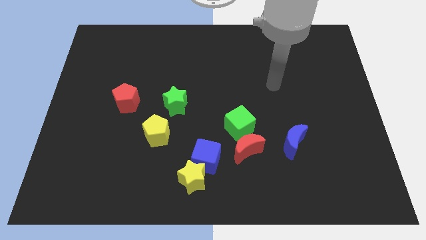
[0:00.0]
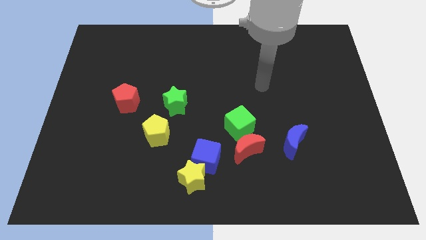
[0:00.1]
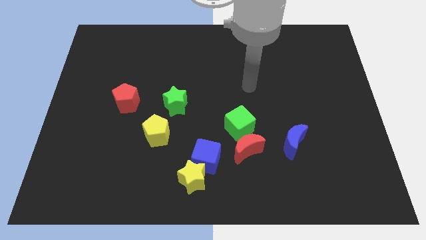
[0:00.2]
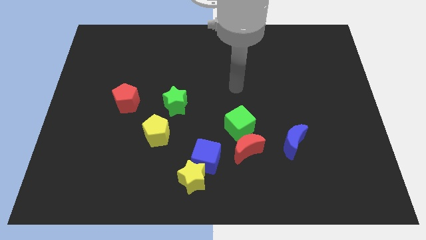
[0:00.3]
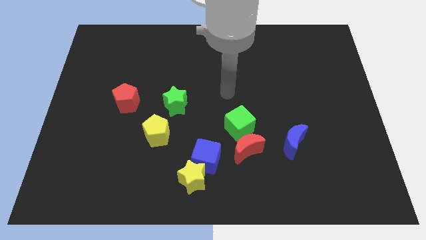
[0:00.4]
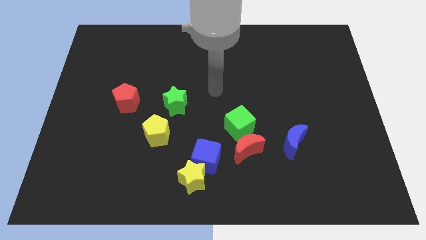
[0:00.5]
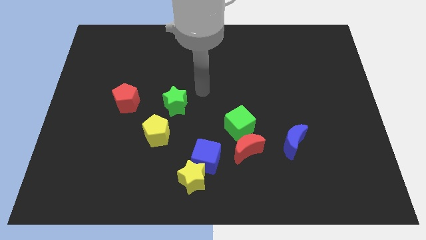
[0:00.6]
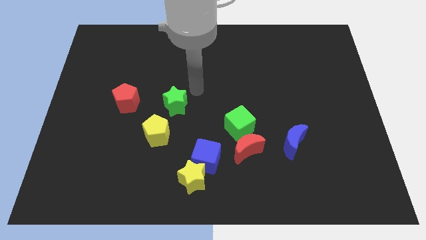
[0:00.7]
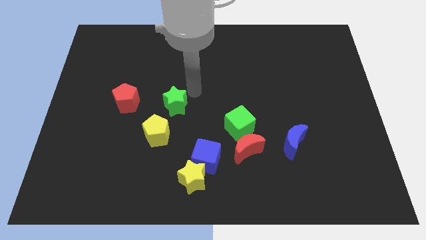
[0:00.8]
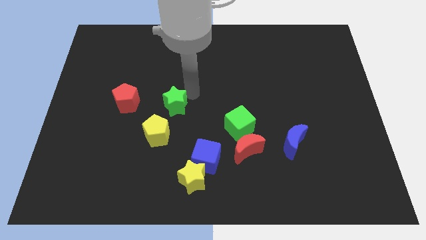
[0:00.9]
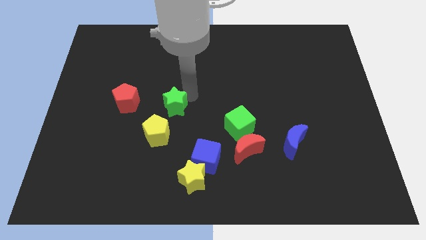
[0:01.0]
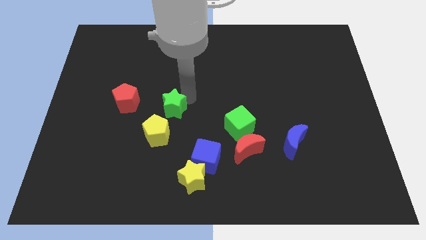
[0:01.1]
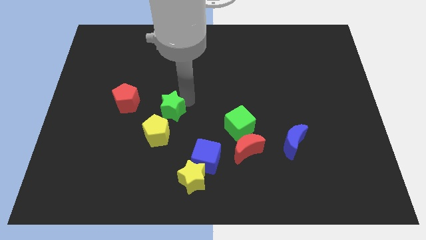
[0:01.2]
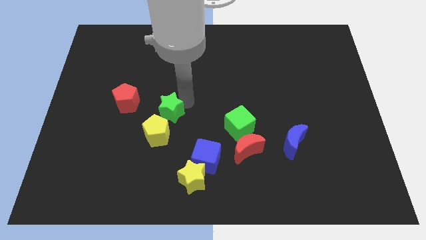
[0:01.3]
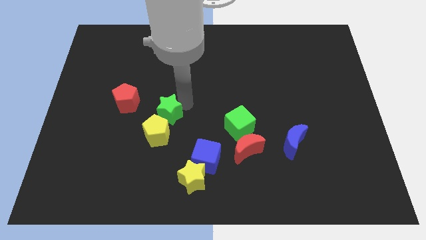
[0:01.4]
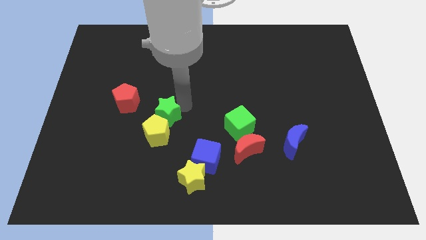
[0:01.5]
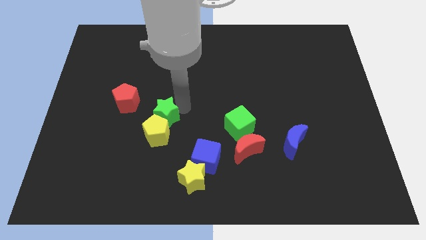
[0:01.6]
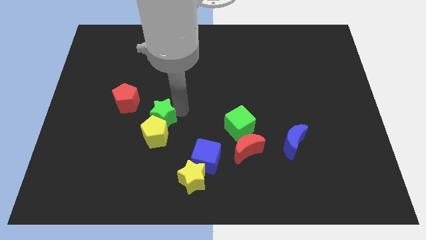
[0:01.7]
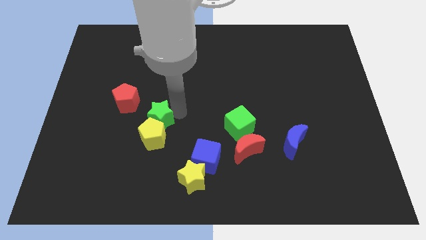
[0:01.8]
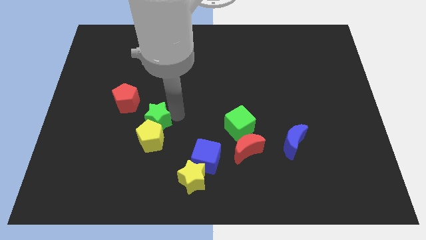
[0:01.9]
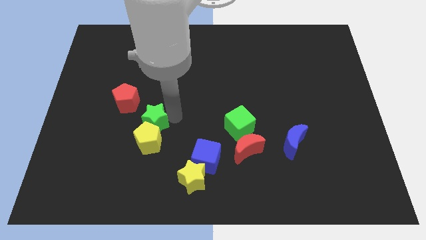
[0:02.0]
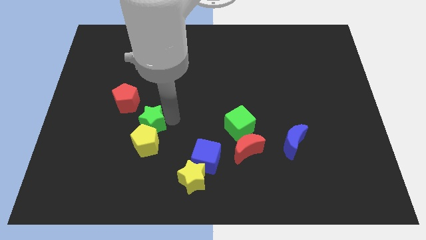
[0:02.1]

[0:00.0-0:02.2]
slightly slide the green star down and to the left diagonally

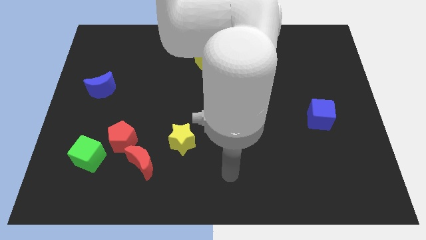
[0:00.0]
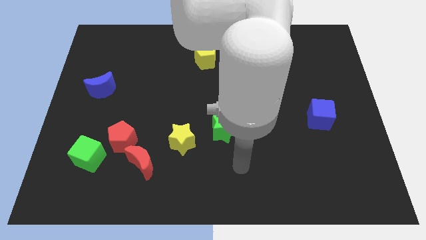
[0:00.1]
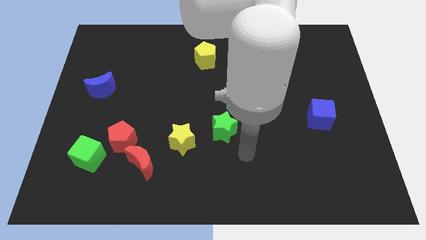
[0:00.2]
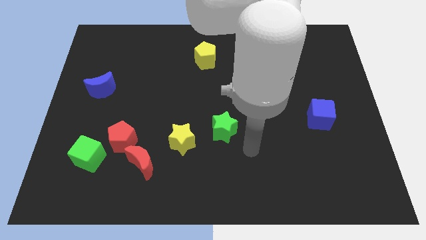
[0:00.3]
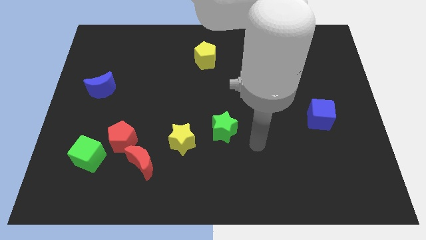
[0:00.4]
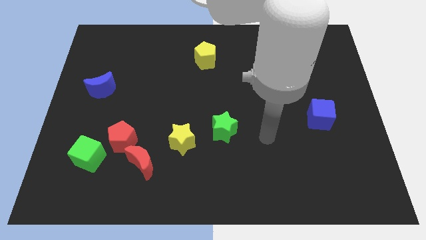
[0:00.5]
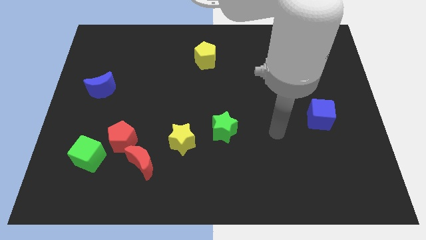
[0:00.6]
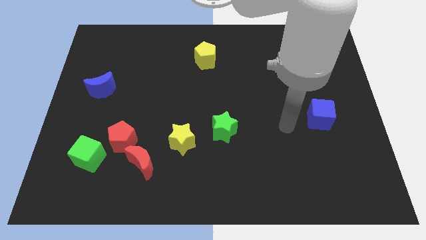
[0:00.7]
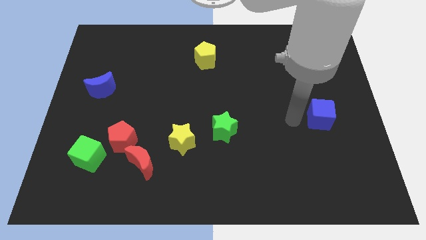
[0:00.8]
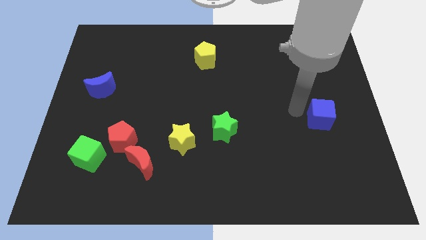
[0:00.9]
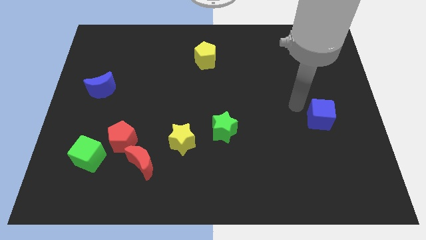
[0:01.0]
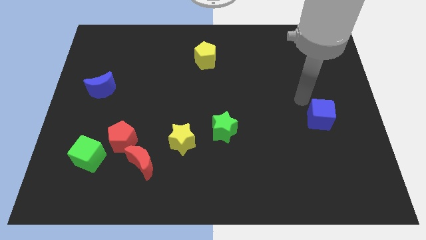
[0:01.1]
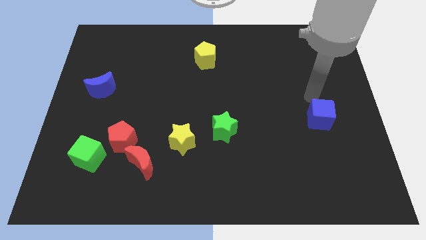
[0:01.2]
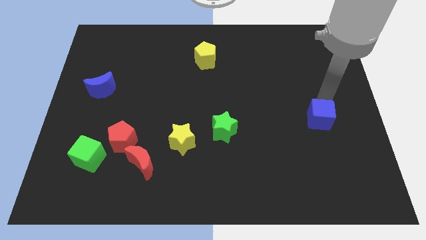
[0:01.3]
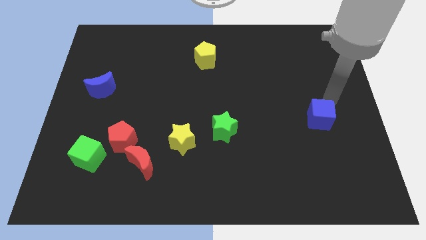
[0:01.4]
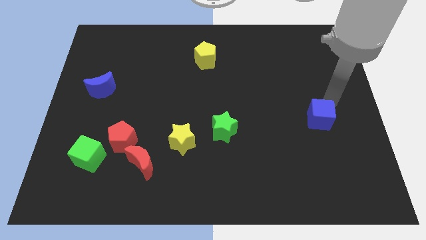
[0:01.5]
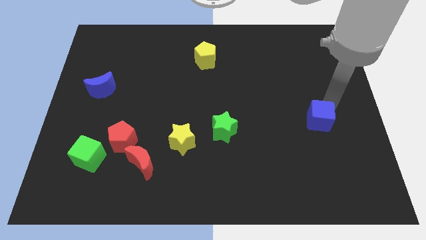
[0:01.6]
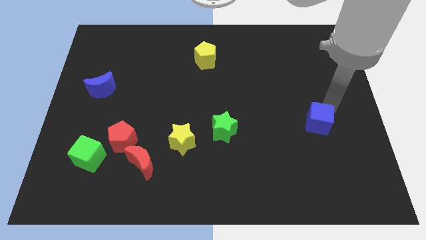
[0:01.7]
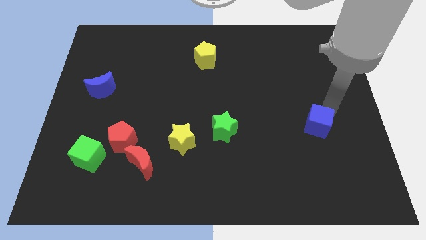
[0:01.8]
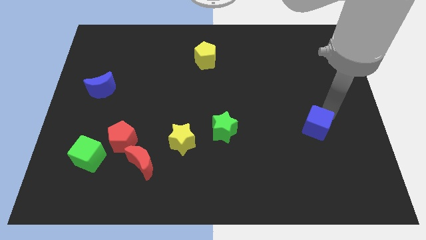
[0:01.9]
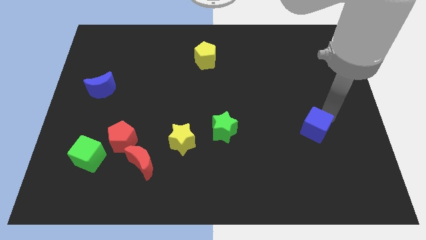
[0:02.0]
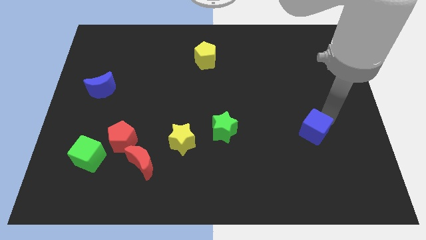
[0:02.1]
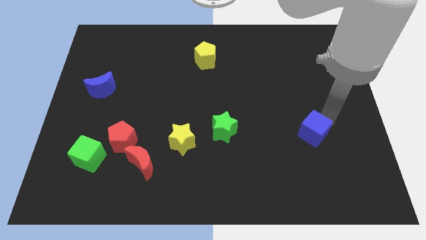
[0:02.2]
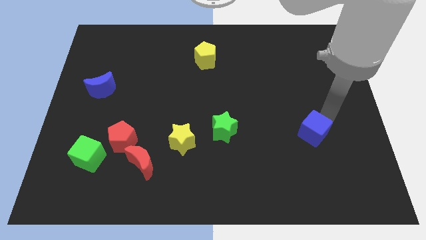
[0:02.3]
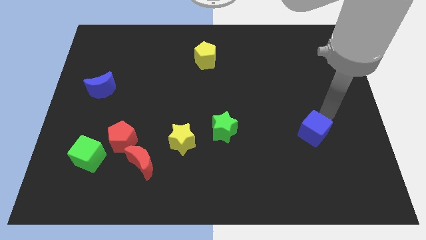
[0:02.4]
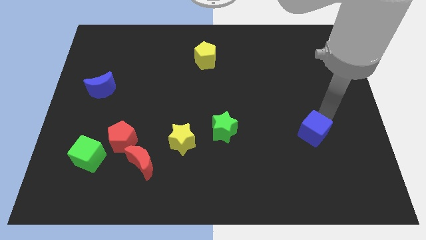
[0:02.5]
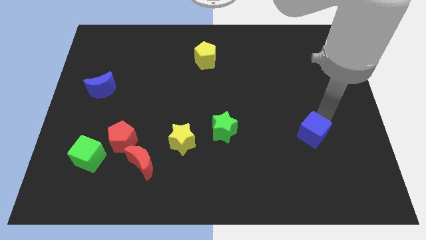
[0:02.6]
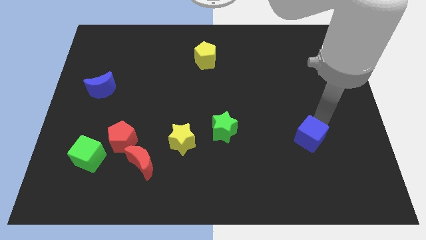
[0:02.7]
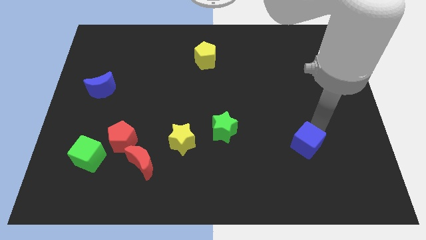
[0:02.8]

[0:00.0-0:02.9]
move the blue cube downwards and left a little bit

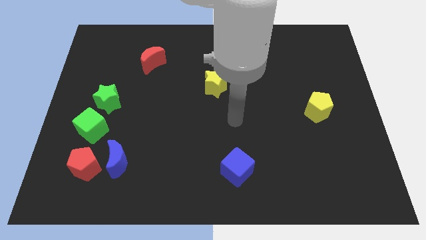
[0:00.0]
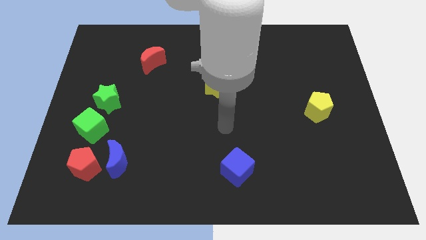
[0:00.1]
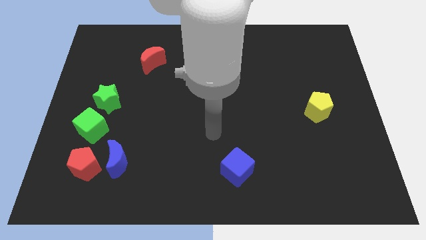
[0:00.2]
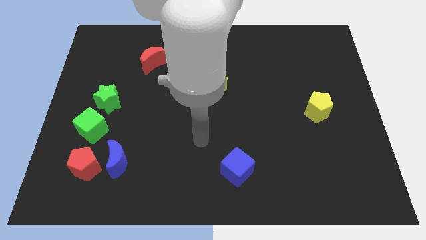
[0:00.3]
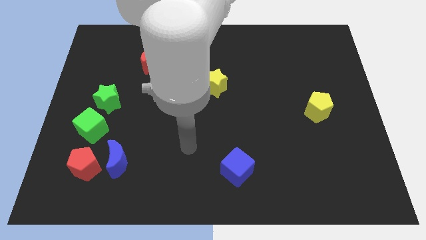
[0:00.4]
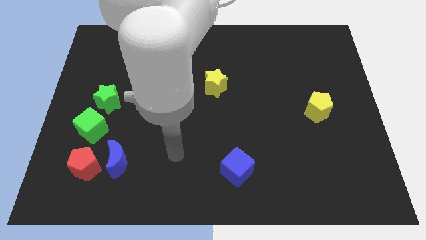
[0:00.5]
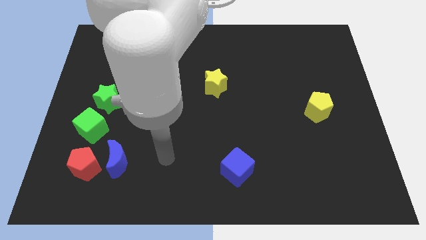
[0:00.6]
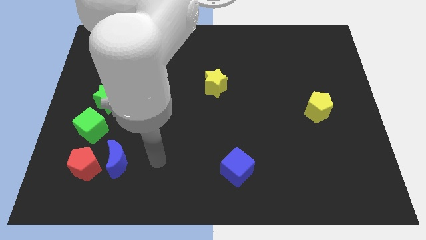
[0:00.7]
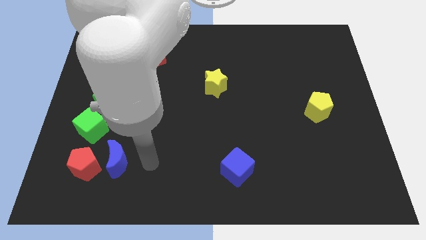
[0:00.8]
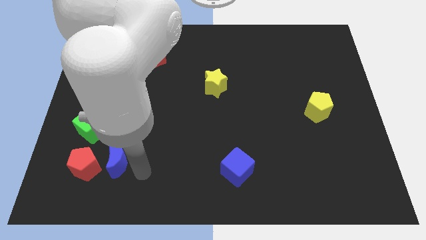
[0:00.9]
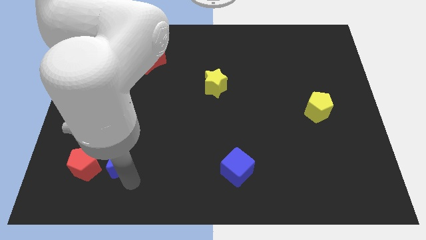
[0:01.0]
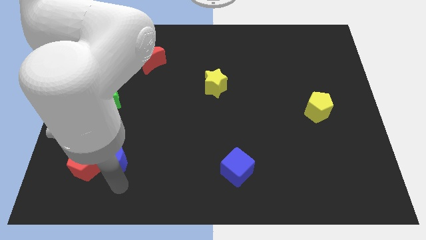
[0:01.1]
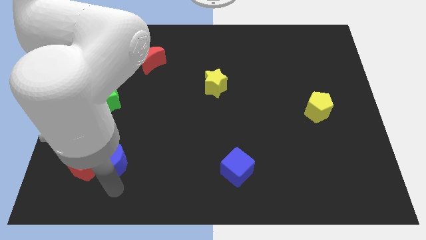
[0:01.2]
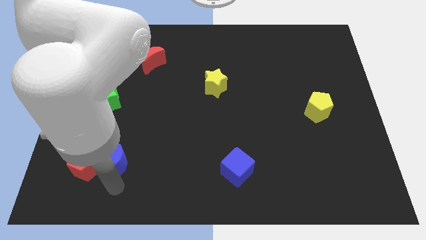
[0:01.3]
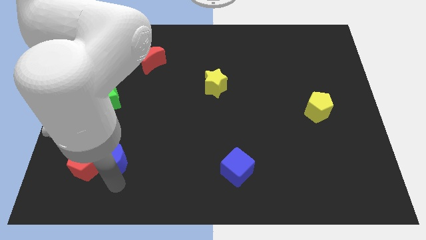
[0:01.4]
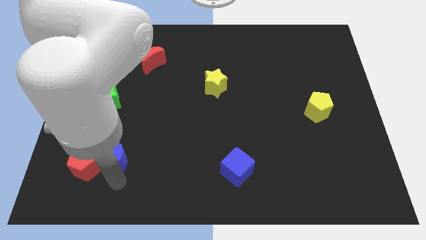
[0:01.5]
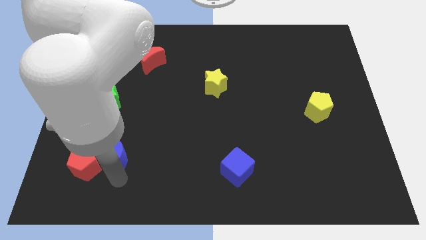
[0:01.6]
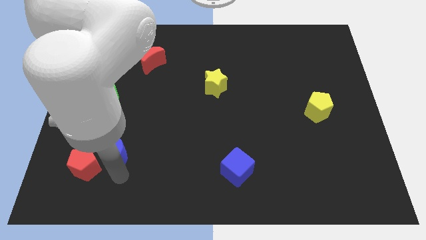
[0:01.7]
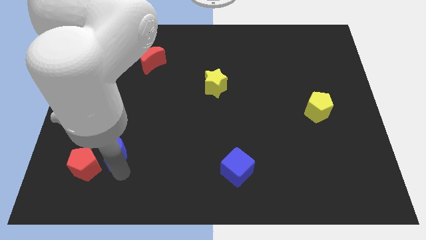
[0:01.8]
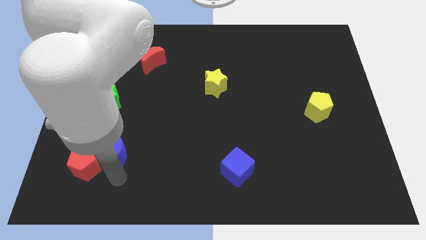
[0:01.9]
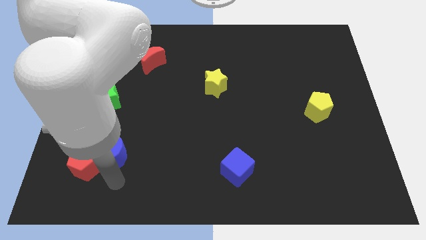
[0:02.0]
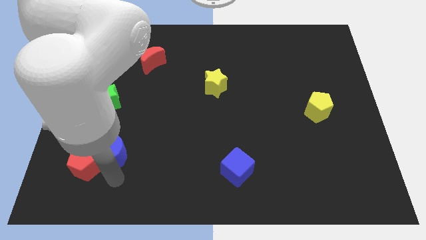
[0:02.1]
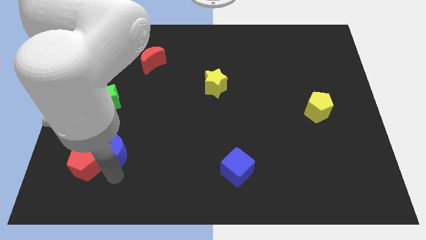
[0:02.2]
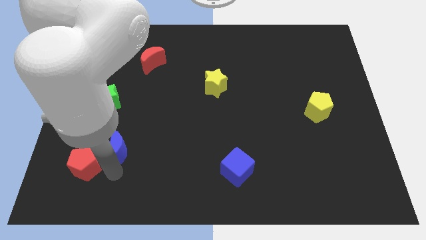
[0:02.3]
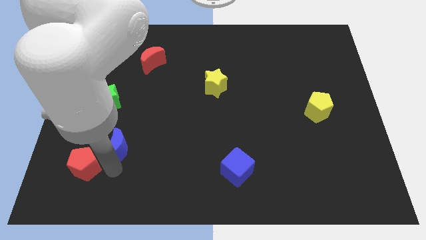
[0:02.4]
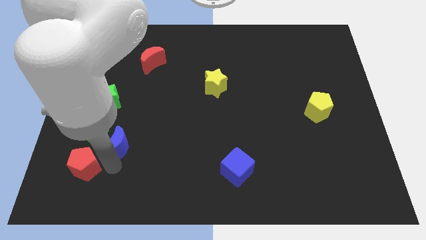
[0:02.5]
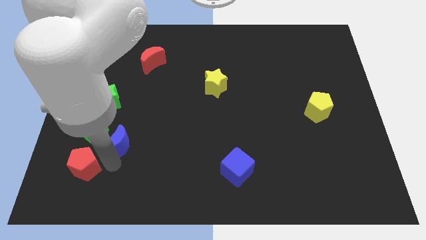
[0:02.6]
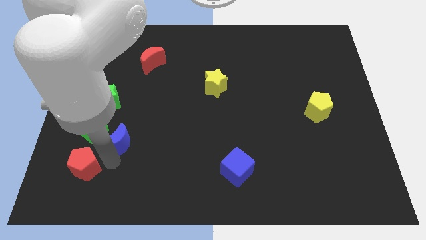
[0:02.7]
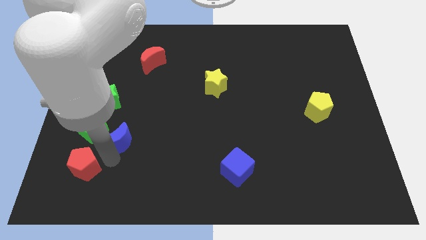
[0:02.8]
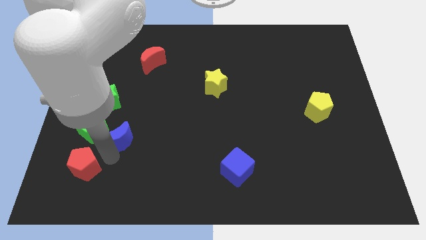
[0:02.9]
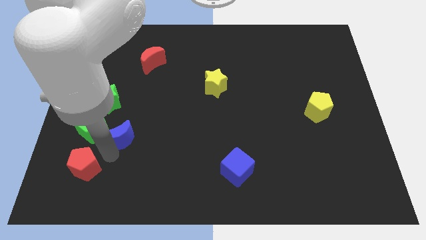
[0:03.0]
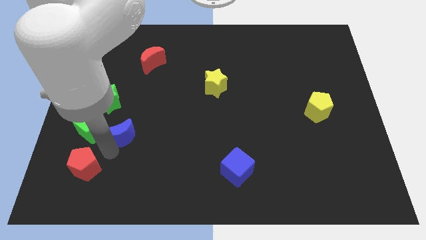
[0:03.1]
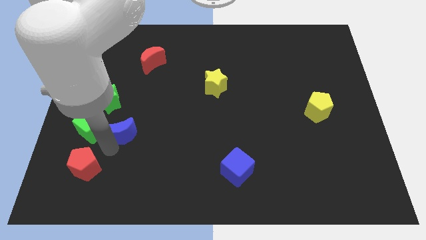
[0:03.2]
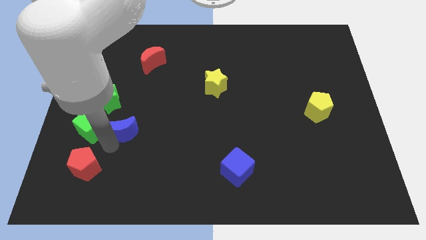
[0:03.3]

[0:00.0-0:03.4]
slide the blue moon a little upwards
